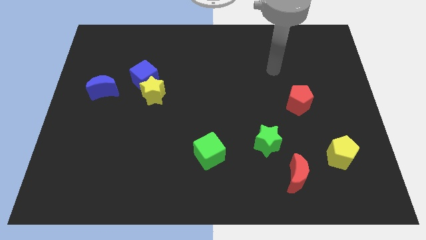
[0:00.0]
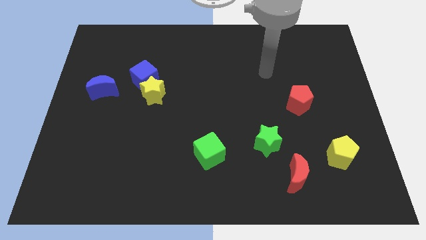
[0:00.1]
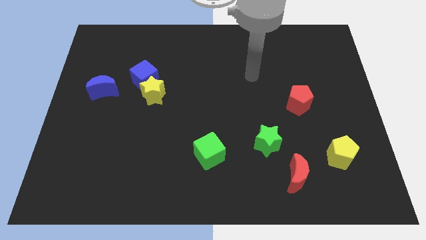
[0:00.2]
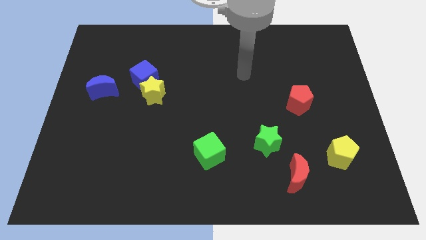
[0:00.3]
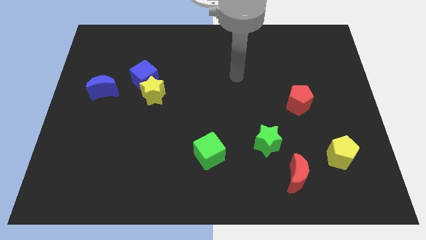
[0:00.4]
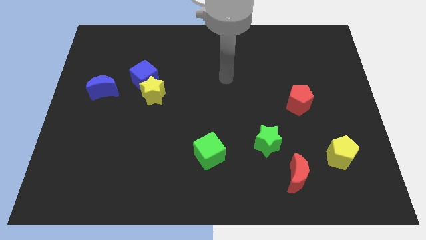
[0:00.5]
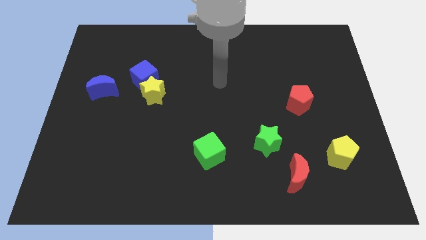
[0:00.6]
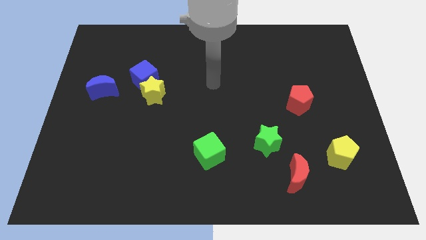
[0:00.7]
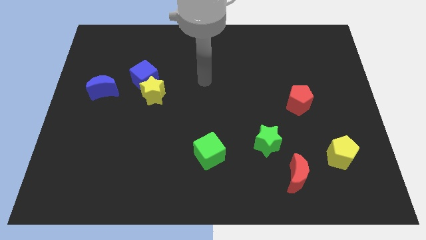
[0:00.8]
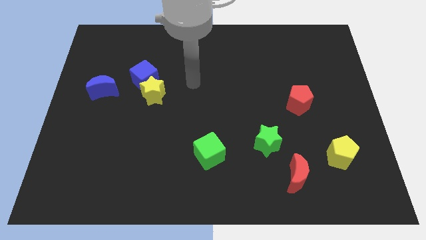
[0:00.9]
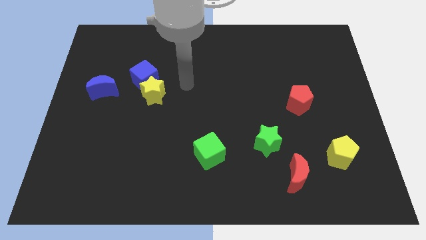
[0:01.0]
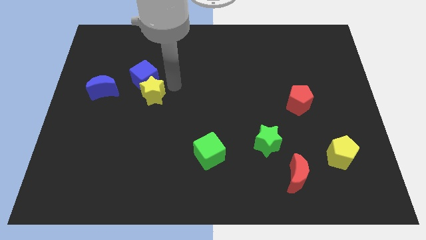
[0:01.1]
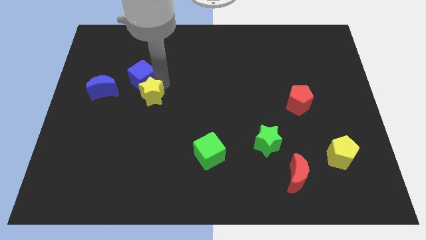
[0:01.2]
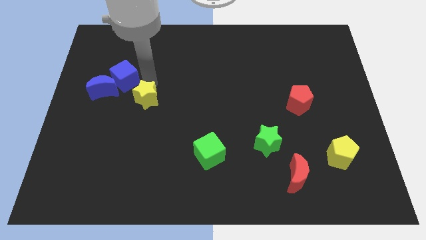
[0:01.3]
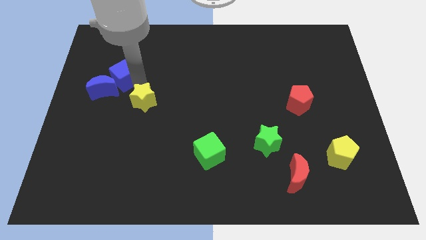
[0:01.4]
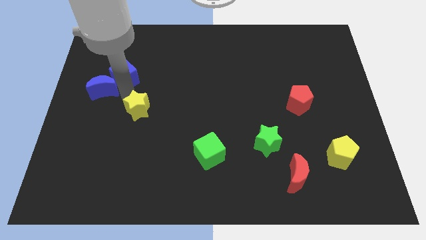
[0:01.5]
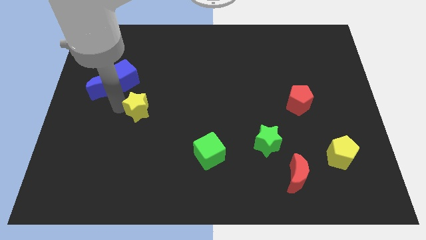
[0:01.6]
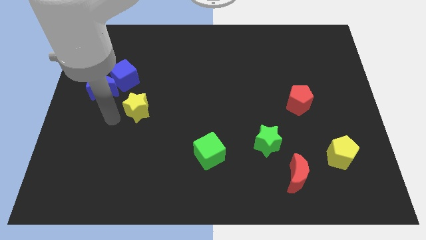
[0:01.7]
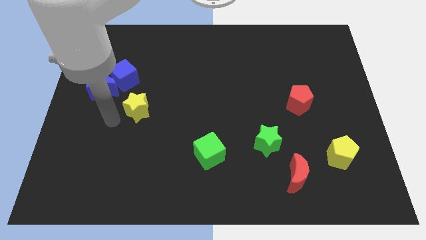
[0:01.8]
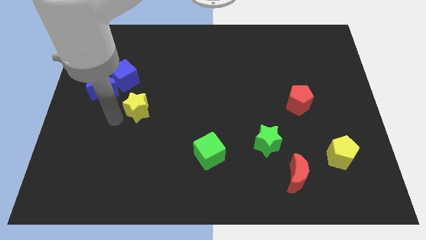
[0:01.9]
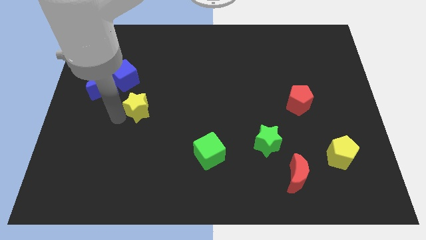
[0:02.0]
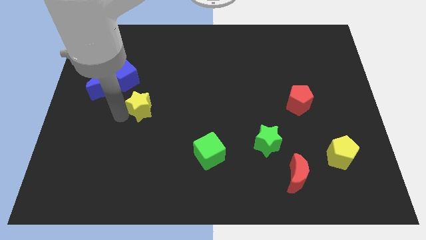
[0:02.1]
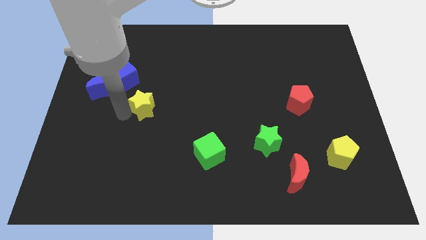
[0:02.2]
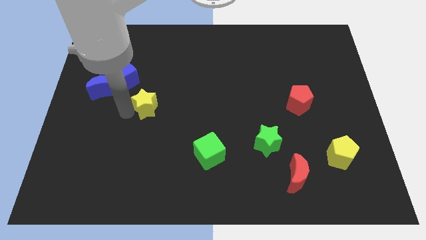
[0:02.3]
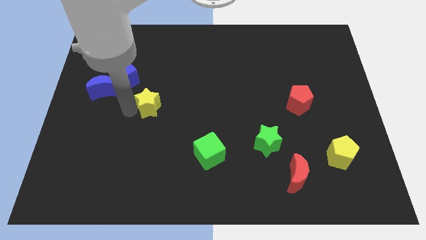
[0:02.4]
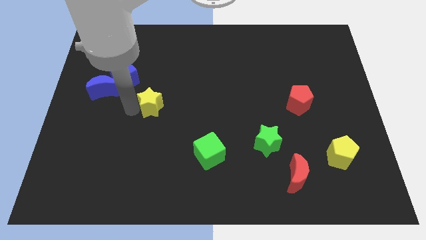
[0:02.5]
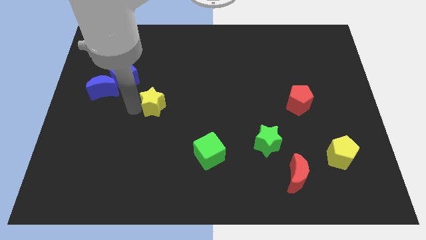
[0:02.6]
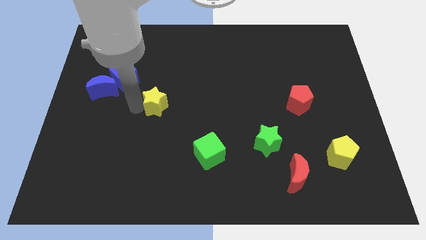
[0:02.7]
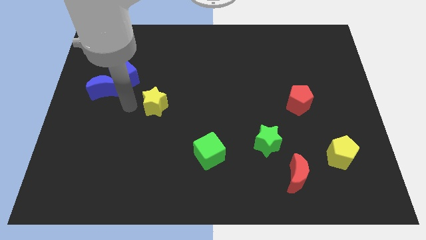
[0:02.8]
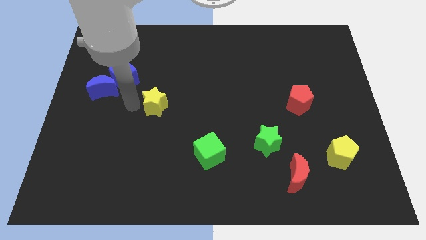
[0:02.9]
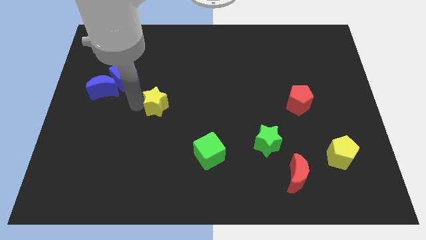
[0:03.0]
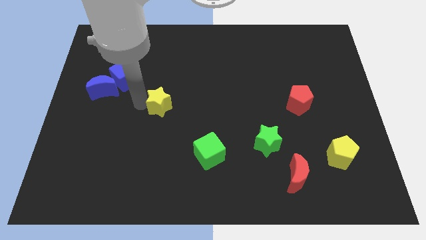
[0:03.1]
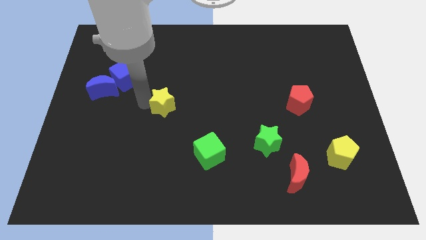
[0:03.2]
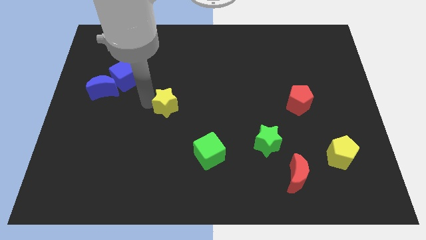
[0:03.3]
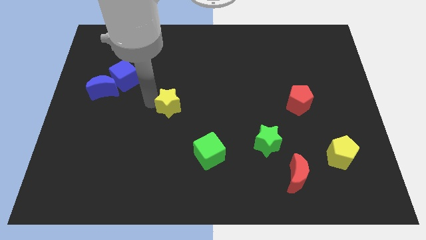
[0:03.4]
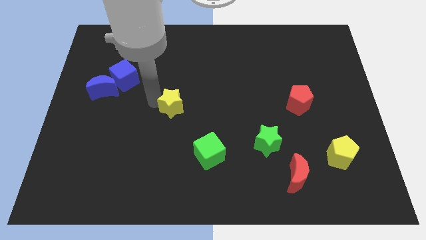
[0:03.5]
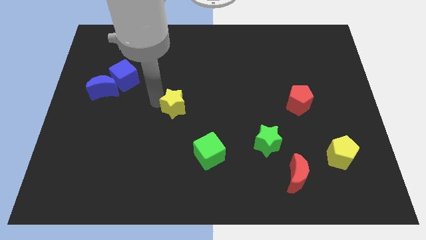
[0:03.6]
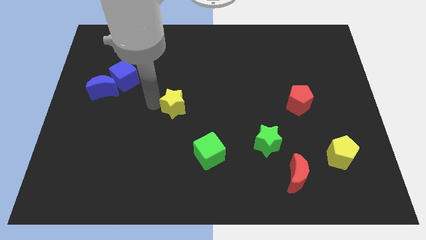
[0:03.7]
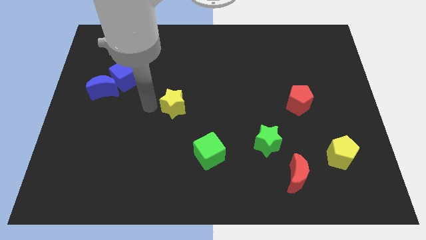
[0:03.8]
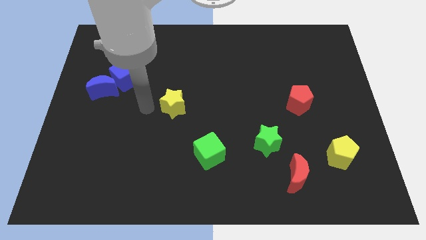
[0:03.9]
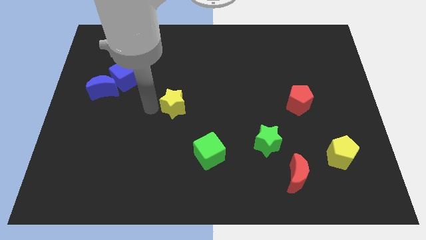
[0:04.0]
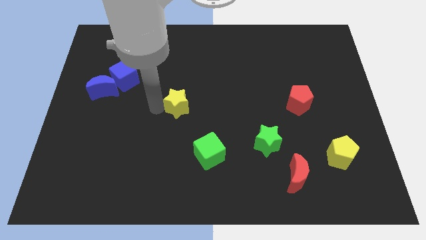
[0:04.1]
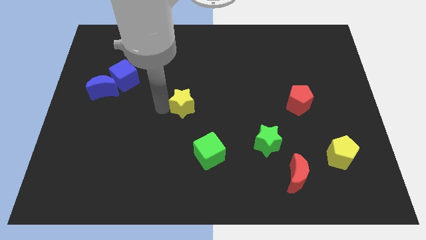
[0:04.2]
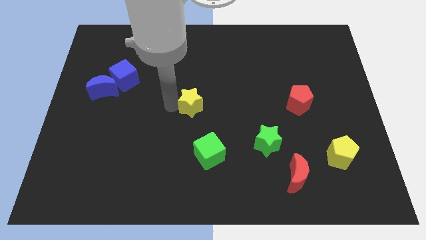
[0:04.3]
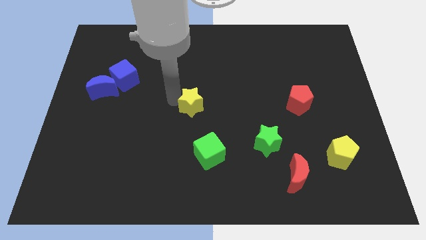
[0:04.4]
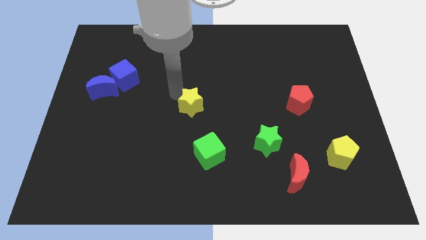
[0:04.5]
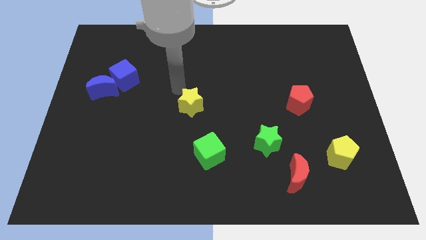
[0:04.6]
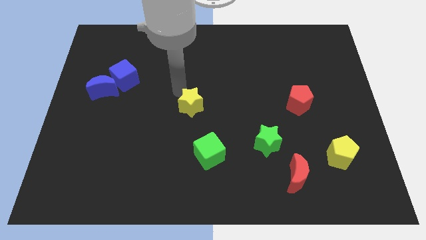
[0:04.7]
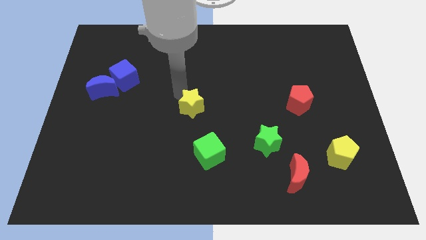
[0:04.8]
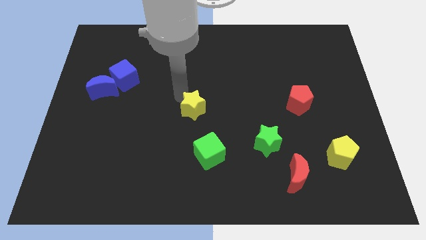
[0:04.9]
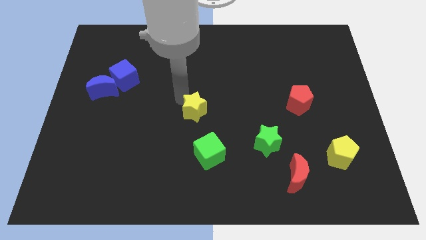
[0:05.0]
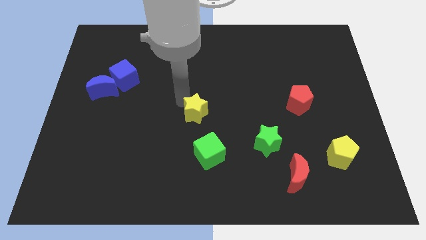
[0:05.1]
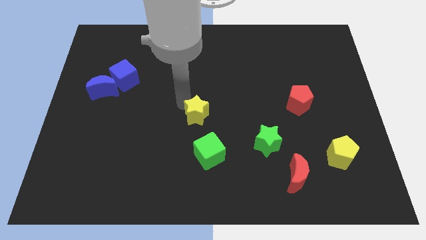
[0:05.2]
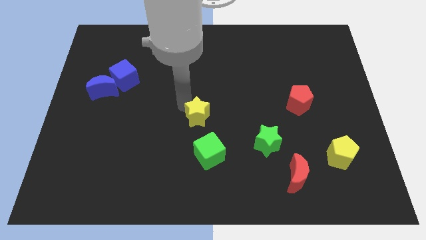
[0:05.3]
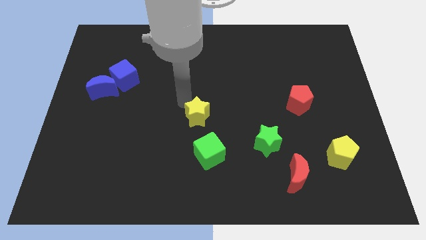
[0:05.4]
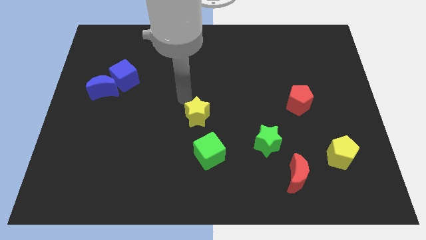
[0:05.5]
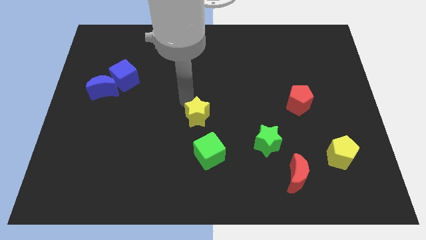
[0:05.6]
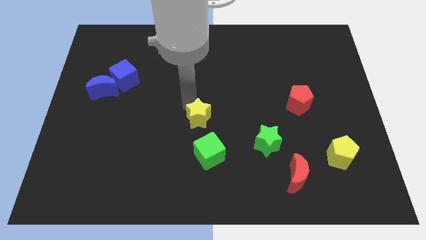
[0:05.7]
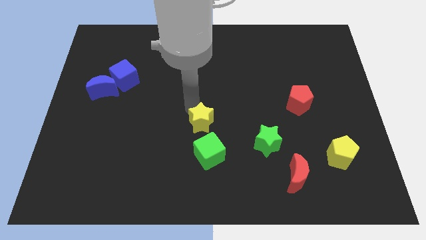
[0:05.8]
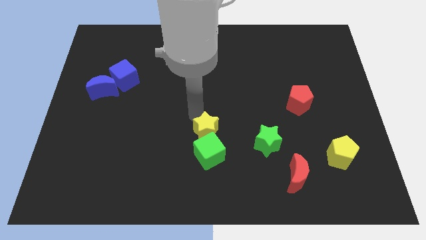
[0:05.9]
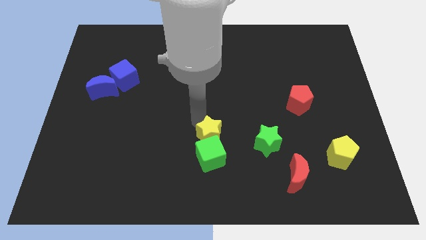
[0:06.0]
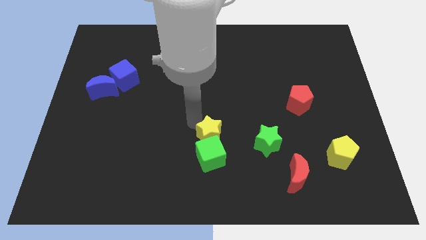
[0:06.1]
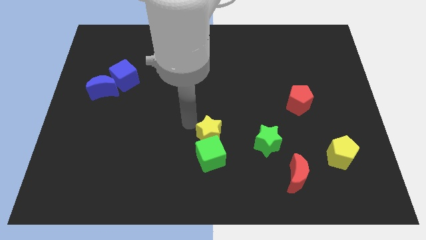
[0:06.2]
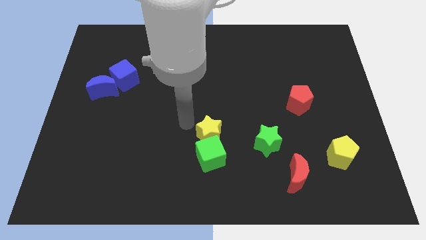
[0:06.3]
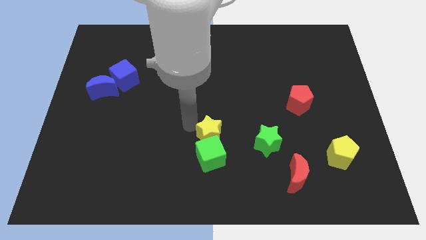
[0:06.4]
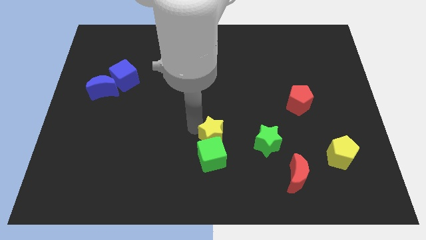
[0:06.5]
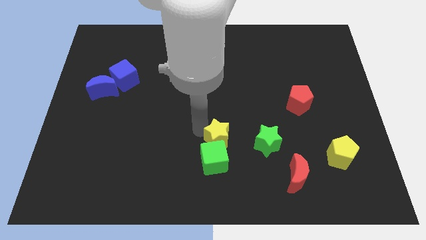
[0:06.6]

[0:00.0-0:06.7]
move the yellow star diagonally downwards and right

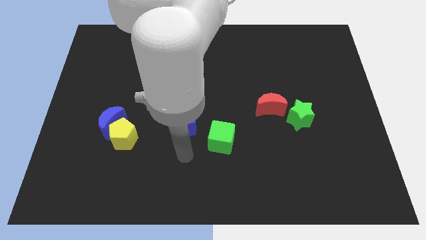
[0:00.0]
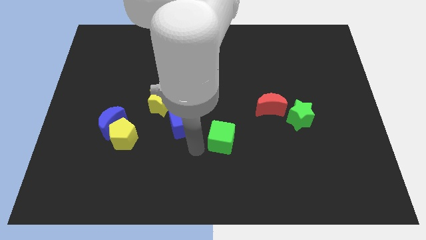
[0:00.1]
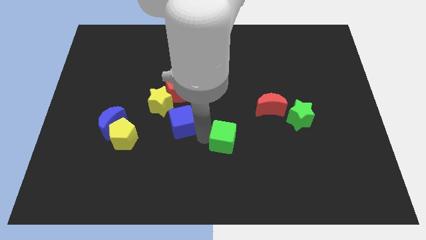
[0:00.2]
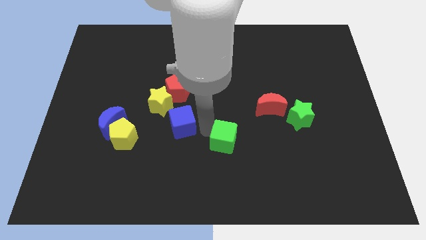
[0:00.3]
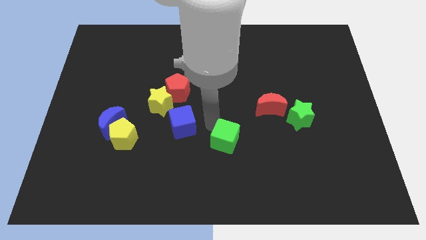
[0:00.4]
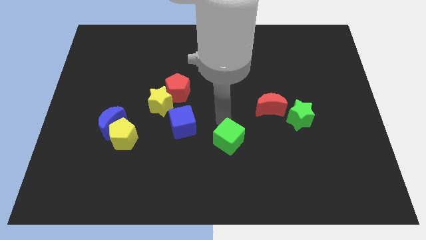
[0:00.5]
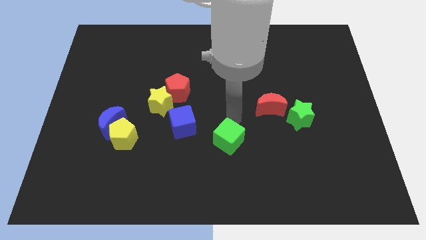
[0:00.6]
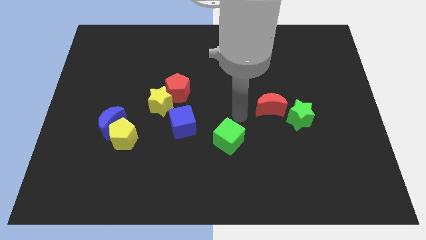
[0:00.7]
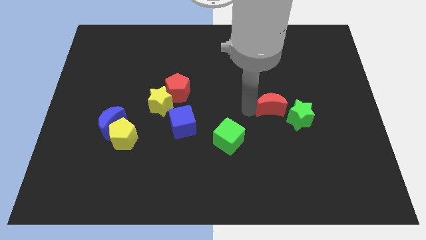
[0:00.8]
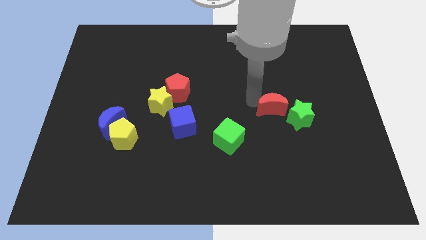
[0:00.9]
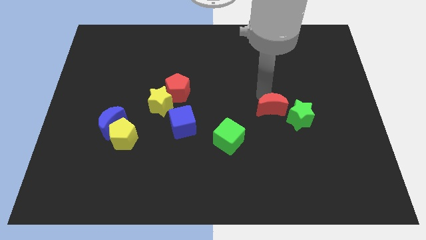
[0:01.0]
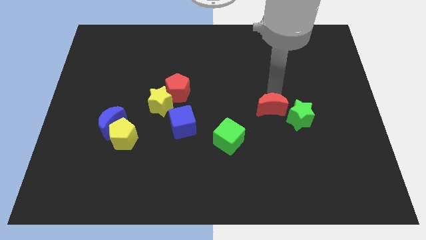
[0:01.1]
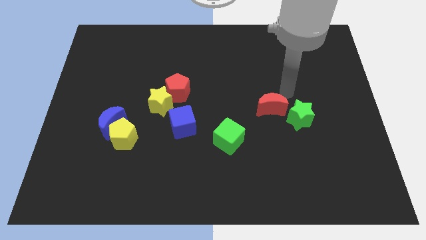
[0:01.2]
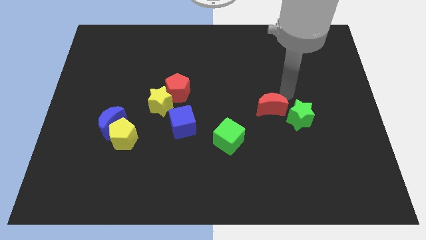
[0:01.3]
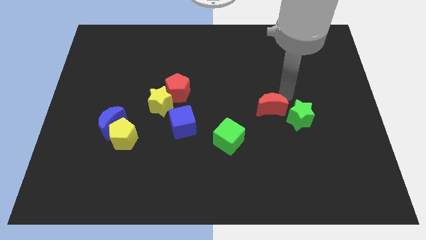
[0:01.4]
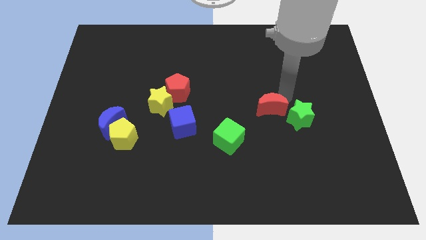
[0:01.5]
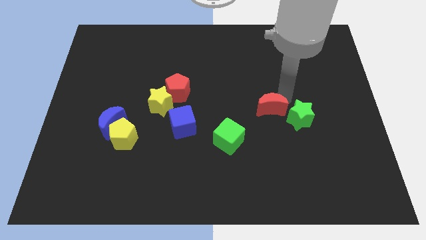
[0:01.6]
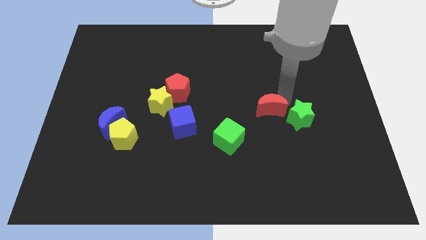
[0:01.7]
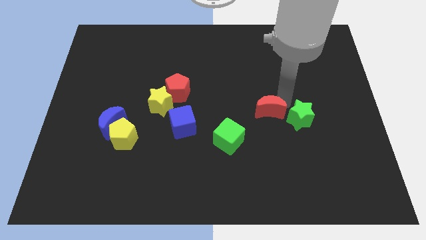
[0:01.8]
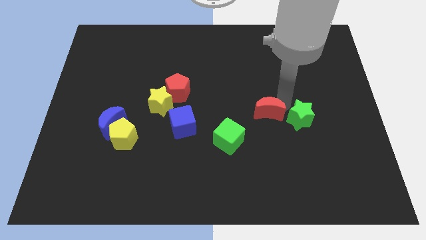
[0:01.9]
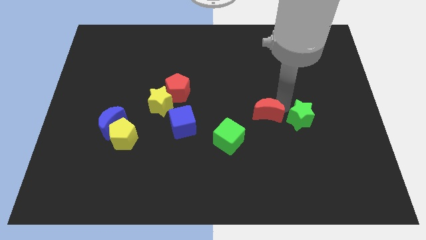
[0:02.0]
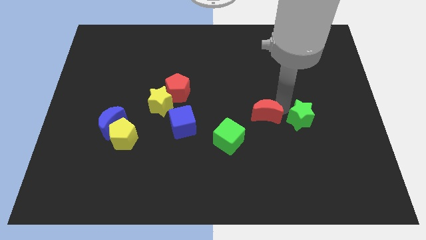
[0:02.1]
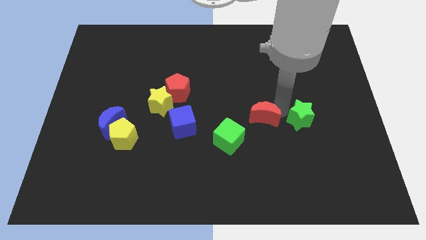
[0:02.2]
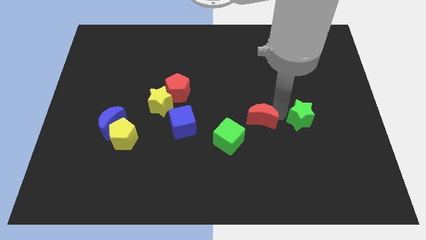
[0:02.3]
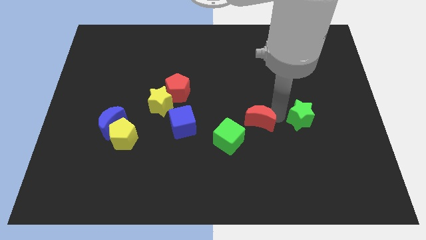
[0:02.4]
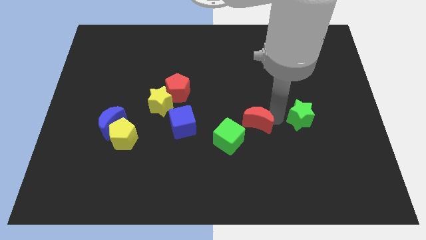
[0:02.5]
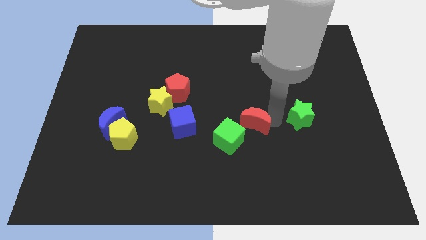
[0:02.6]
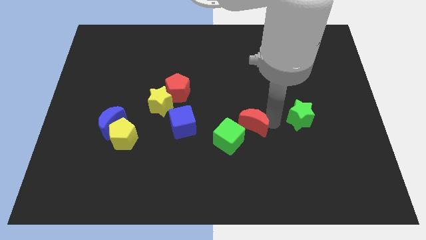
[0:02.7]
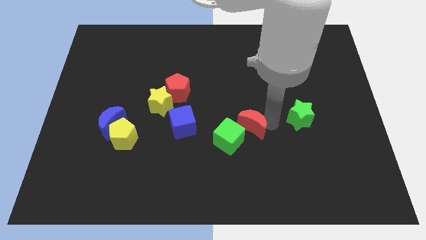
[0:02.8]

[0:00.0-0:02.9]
move the red moon somewhat downwards and left diagonally
